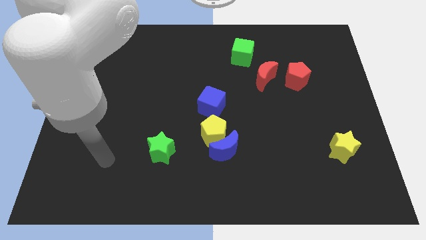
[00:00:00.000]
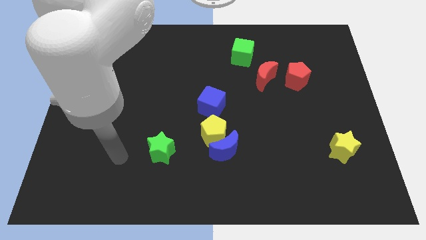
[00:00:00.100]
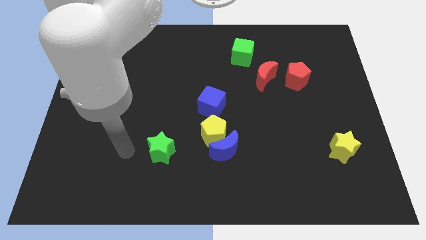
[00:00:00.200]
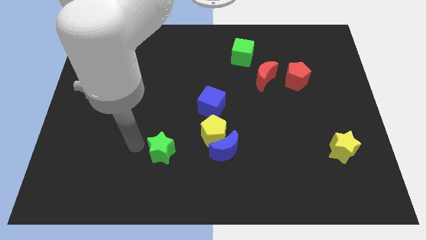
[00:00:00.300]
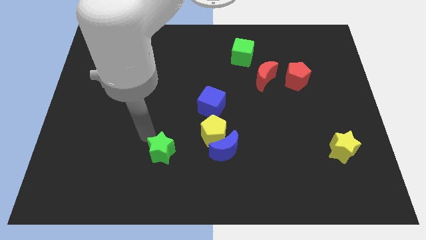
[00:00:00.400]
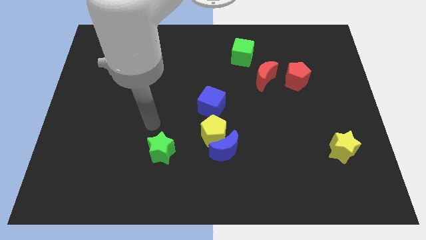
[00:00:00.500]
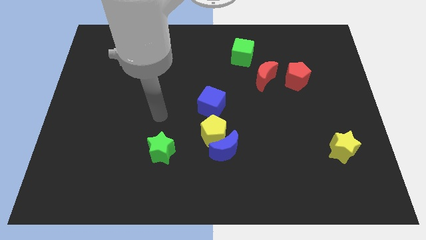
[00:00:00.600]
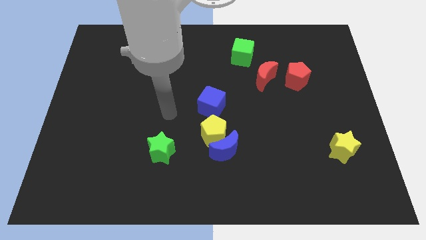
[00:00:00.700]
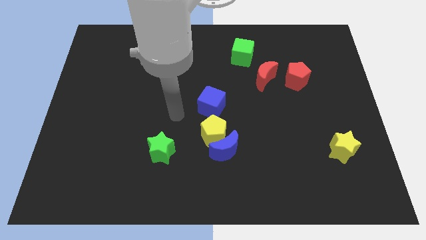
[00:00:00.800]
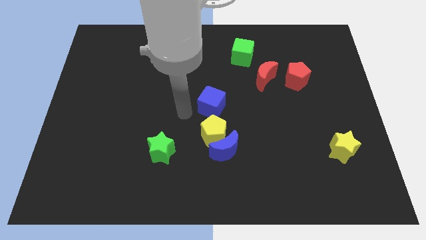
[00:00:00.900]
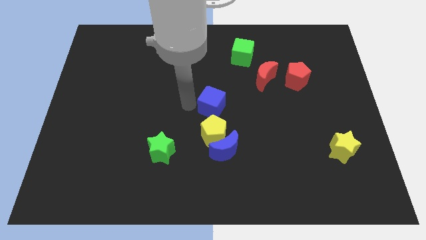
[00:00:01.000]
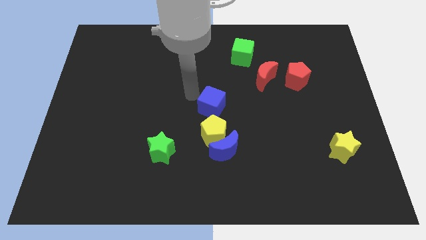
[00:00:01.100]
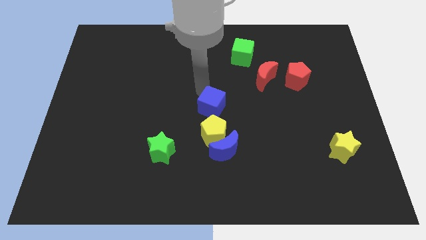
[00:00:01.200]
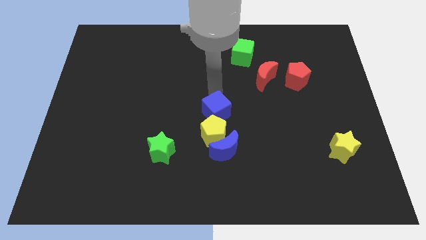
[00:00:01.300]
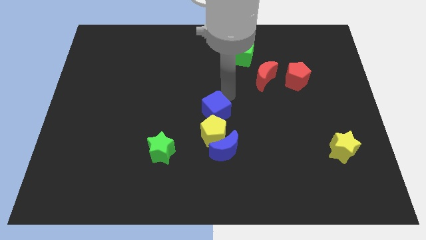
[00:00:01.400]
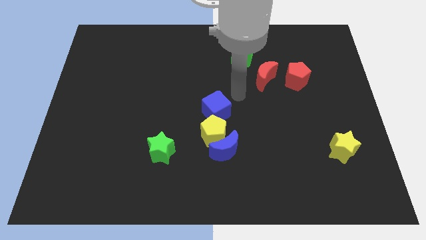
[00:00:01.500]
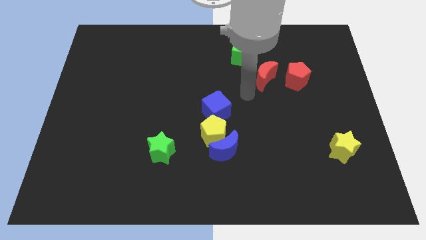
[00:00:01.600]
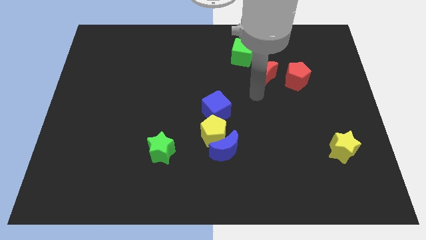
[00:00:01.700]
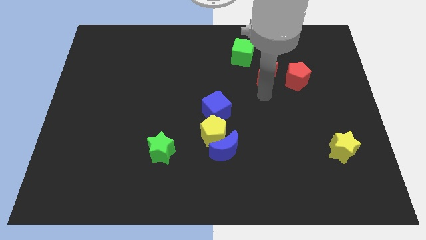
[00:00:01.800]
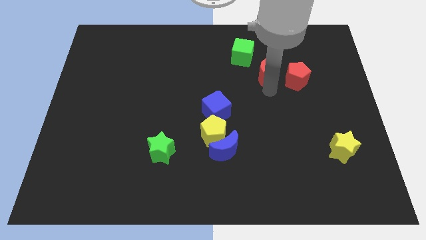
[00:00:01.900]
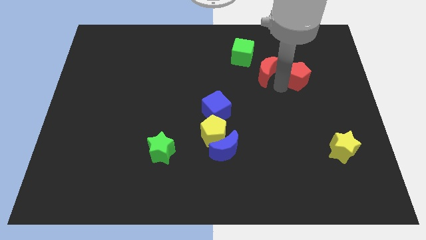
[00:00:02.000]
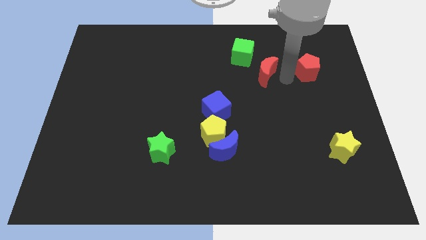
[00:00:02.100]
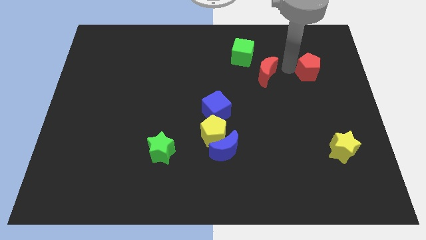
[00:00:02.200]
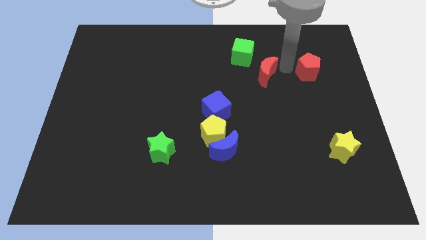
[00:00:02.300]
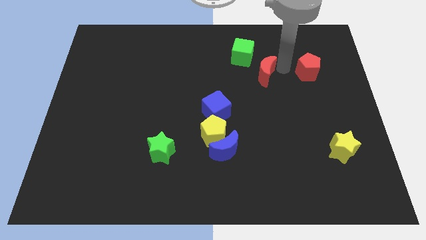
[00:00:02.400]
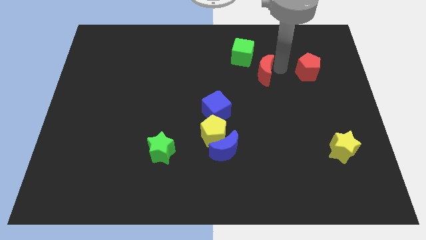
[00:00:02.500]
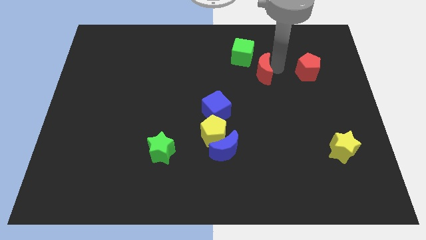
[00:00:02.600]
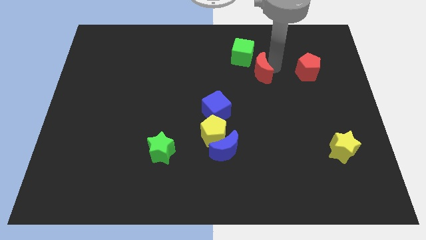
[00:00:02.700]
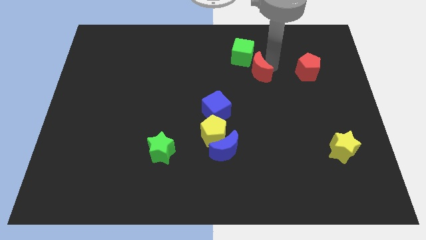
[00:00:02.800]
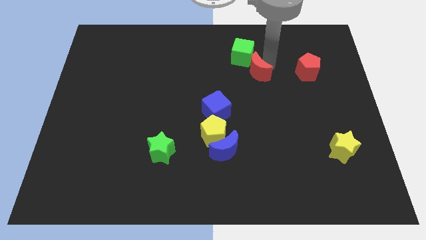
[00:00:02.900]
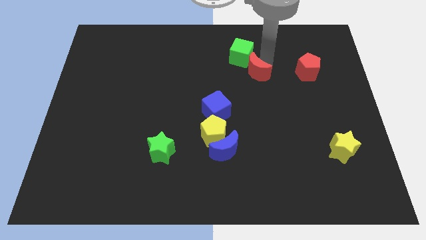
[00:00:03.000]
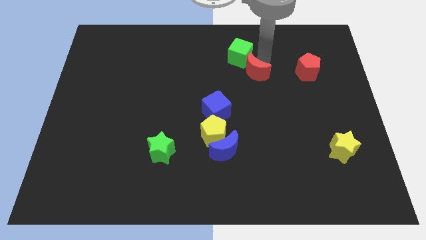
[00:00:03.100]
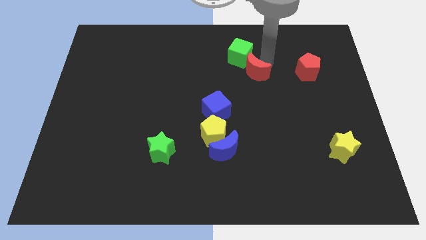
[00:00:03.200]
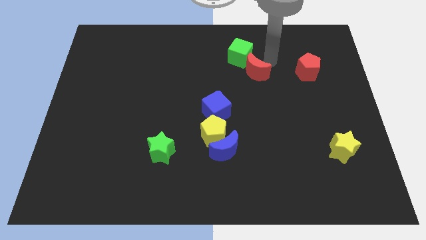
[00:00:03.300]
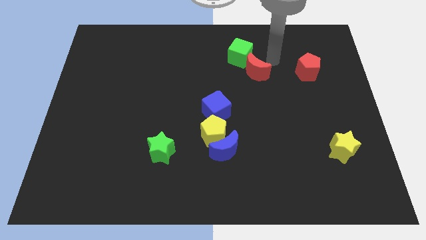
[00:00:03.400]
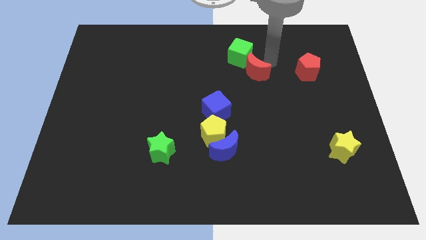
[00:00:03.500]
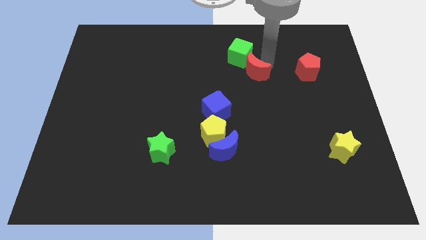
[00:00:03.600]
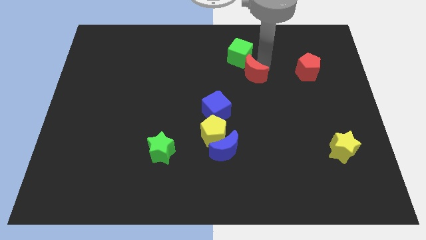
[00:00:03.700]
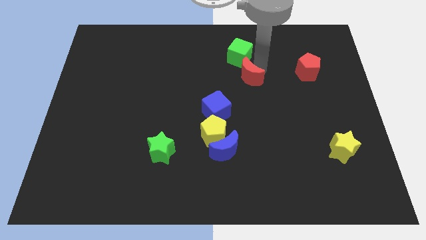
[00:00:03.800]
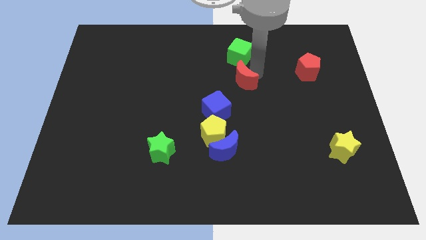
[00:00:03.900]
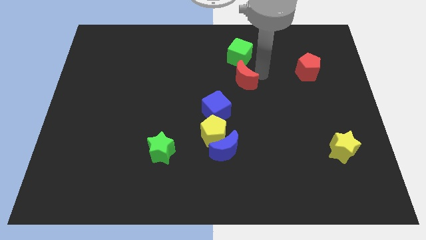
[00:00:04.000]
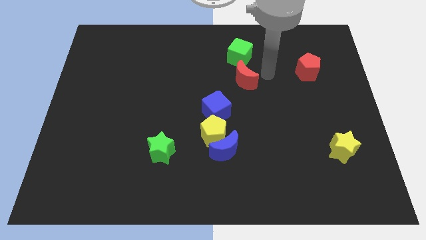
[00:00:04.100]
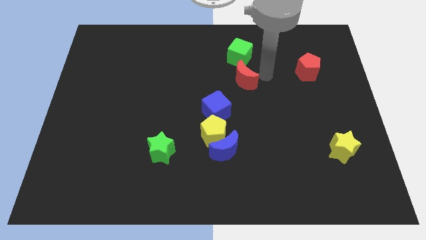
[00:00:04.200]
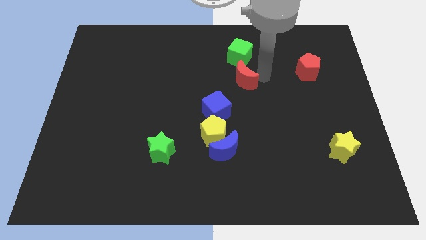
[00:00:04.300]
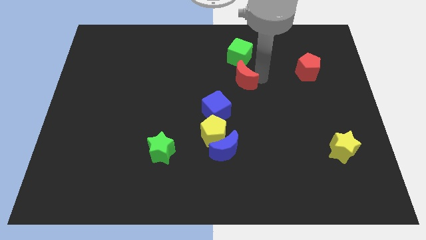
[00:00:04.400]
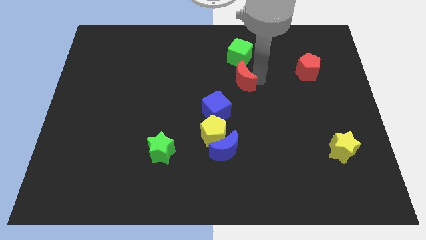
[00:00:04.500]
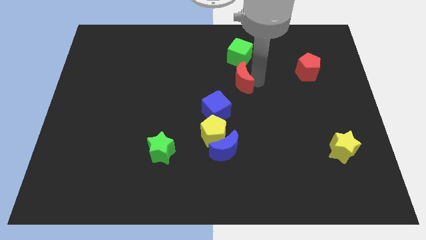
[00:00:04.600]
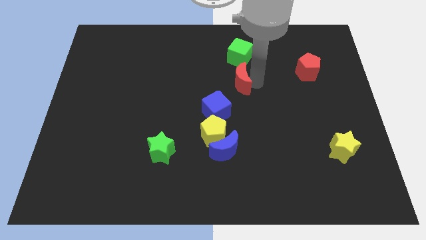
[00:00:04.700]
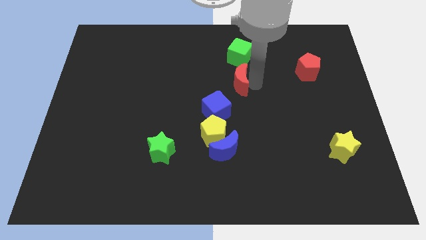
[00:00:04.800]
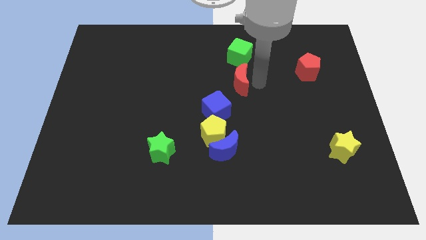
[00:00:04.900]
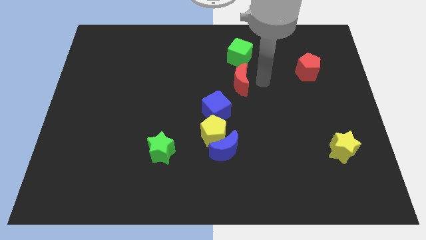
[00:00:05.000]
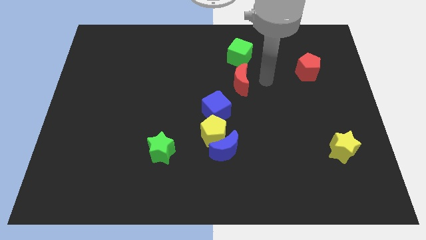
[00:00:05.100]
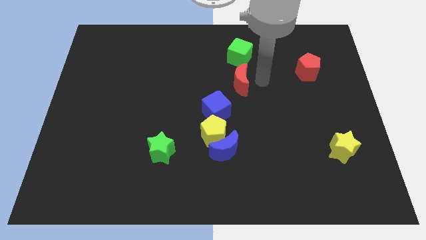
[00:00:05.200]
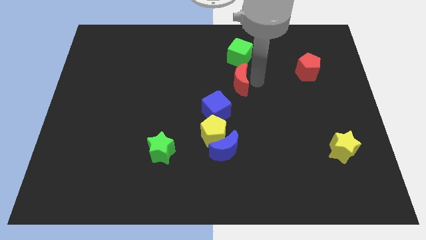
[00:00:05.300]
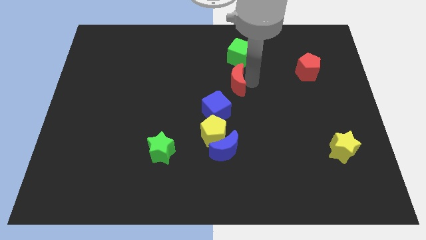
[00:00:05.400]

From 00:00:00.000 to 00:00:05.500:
slide the red moon a little to the left

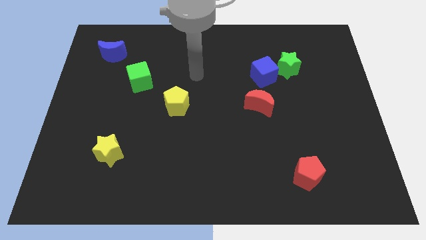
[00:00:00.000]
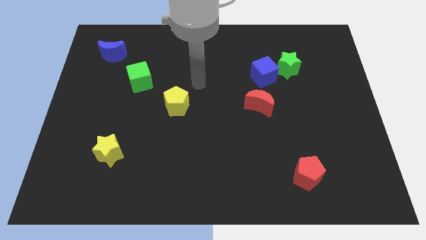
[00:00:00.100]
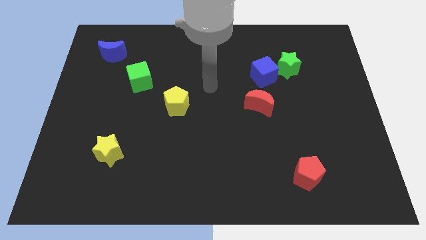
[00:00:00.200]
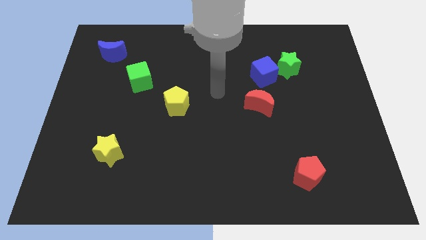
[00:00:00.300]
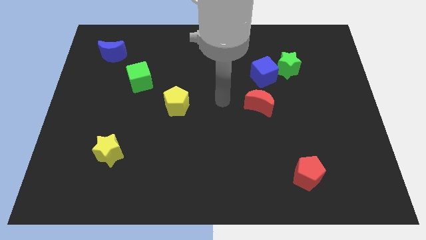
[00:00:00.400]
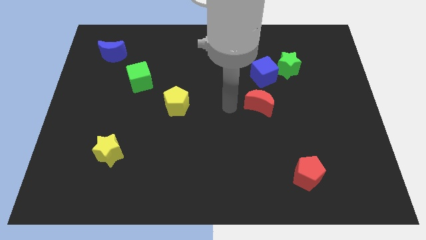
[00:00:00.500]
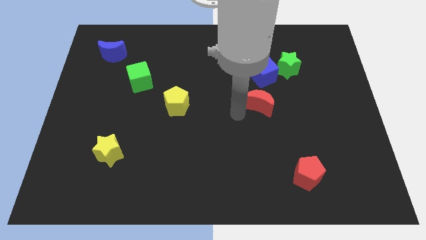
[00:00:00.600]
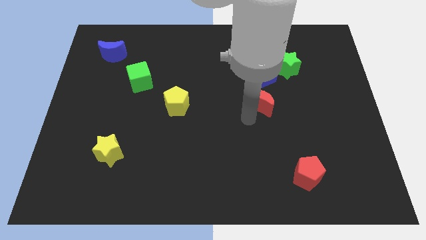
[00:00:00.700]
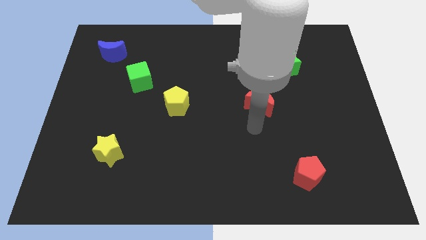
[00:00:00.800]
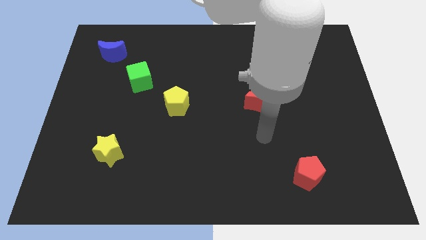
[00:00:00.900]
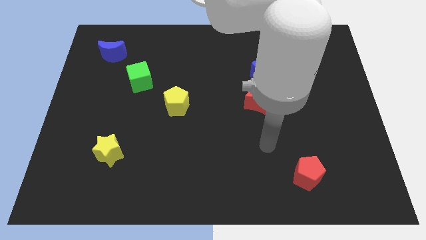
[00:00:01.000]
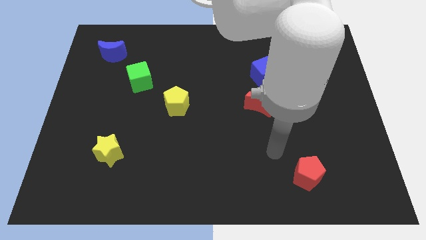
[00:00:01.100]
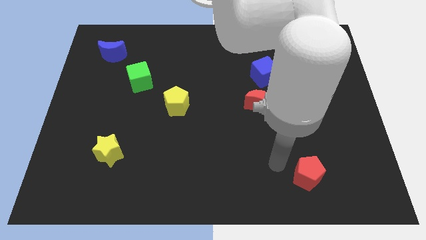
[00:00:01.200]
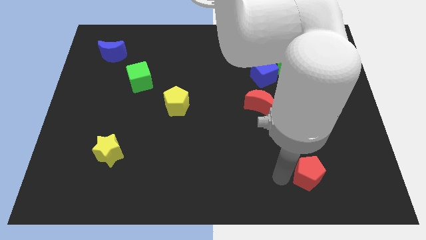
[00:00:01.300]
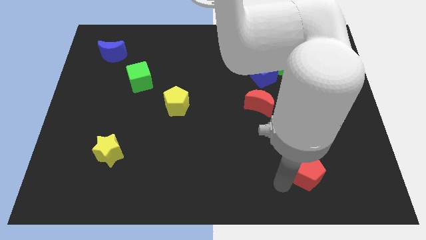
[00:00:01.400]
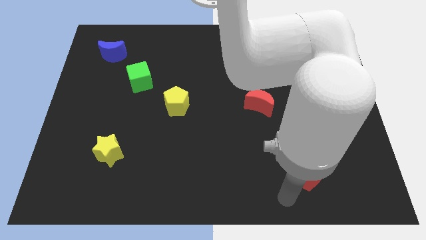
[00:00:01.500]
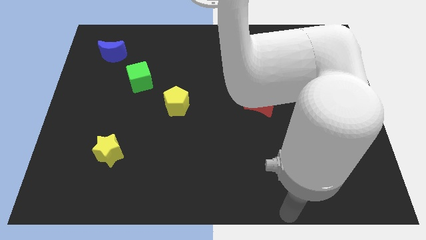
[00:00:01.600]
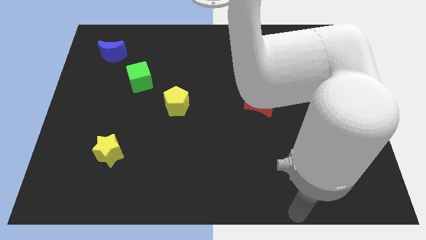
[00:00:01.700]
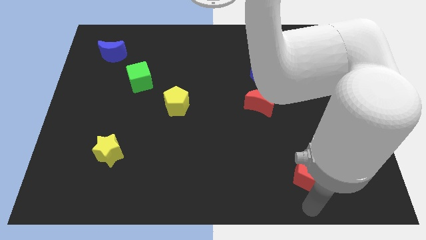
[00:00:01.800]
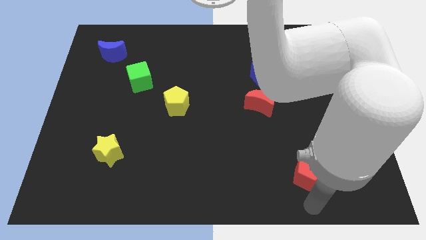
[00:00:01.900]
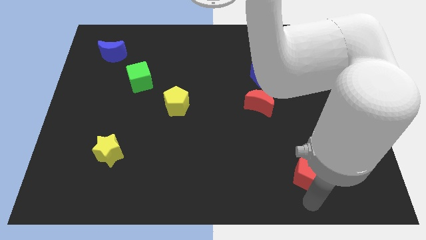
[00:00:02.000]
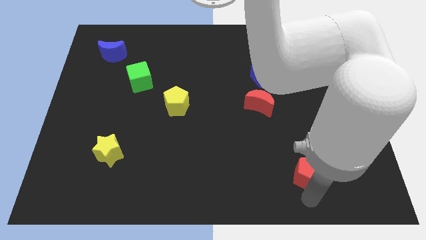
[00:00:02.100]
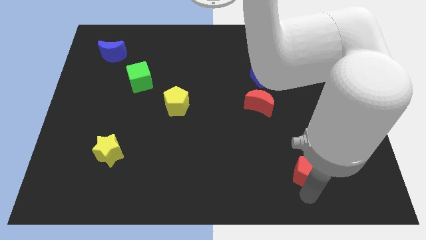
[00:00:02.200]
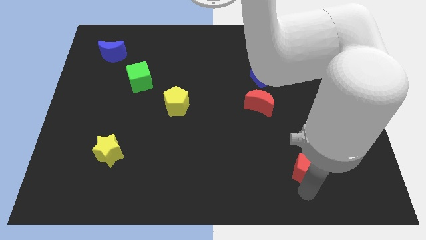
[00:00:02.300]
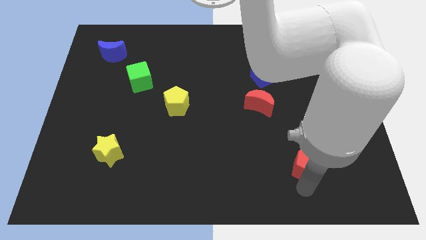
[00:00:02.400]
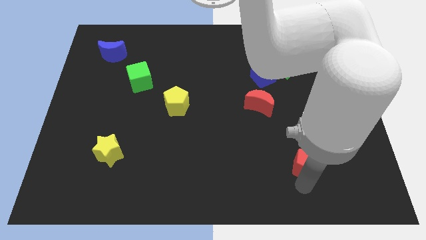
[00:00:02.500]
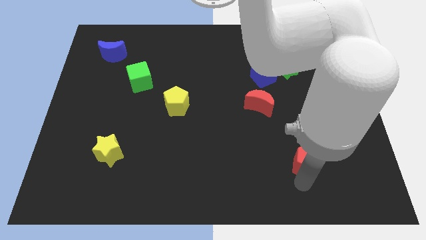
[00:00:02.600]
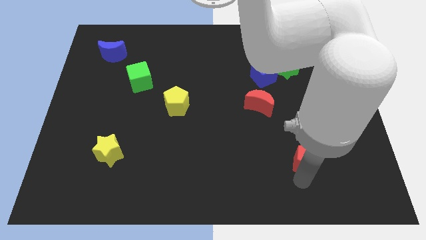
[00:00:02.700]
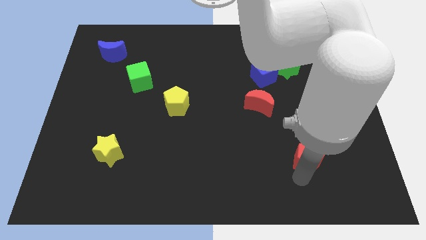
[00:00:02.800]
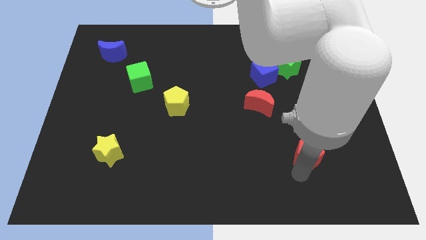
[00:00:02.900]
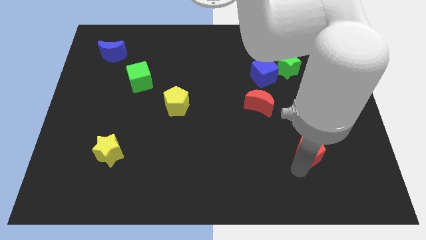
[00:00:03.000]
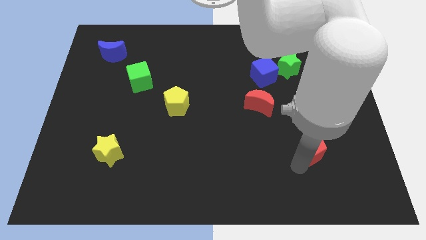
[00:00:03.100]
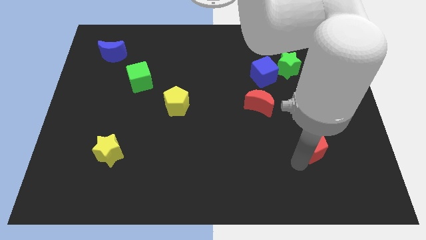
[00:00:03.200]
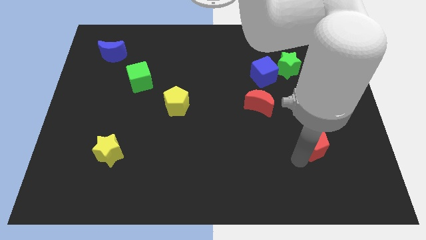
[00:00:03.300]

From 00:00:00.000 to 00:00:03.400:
push the red pentagon a bit upwards
